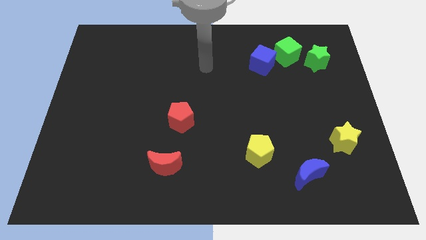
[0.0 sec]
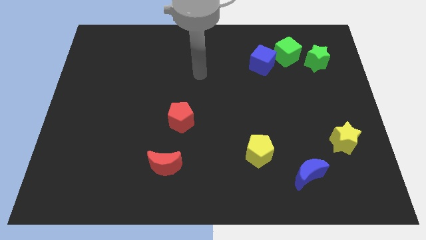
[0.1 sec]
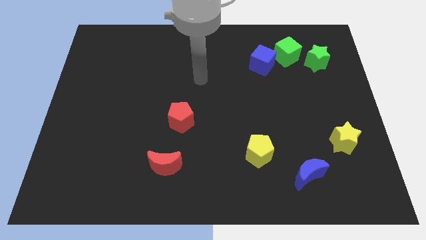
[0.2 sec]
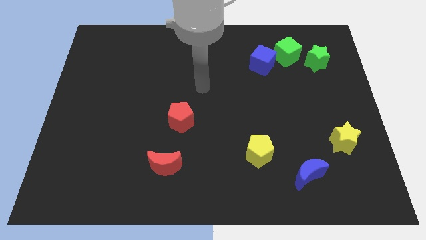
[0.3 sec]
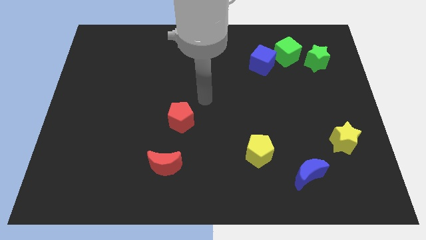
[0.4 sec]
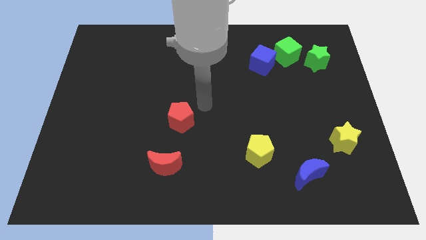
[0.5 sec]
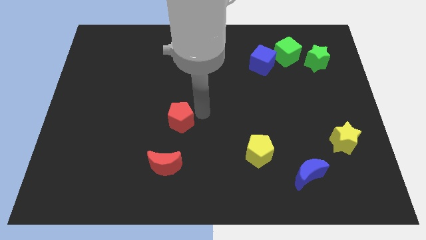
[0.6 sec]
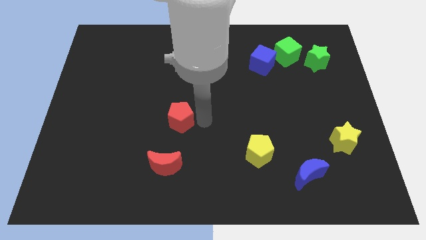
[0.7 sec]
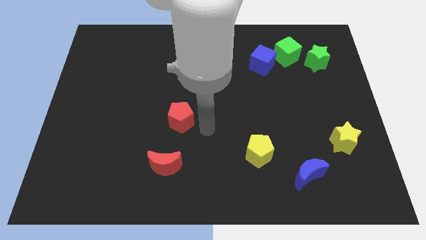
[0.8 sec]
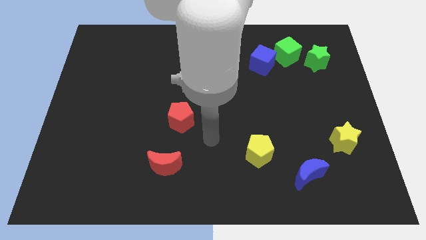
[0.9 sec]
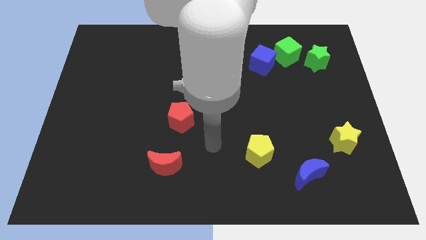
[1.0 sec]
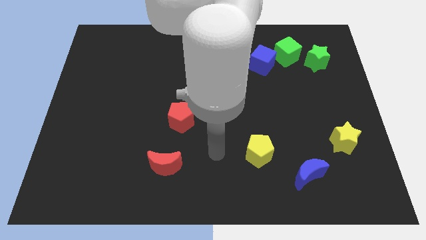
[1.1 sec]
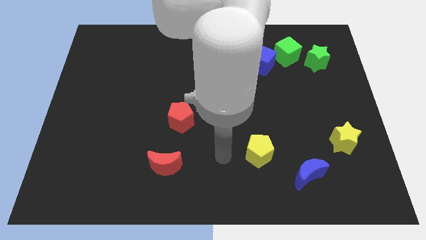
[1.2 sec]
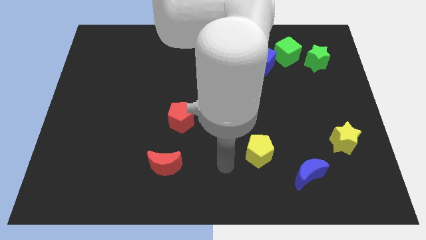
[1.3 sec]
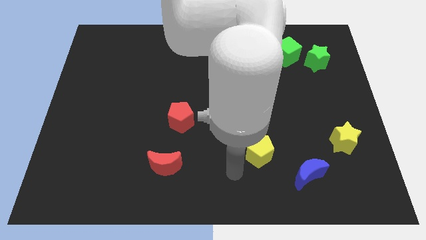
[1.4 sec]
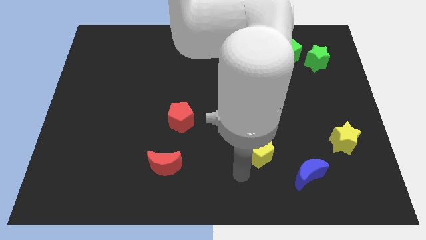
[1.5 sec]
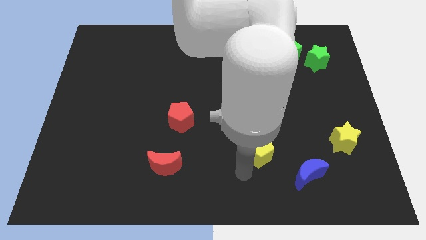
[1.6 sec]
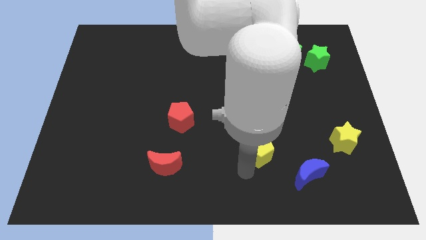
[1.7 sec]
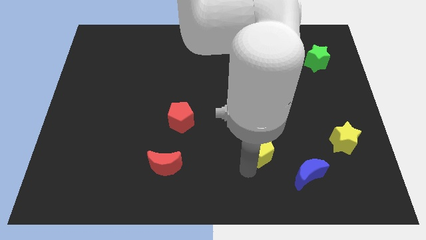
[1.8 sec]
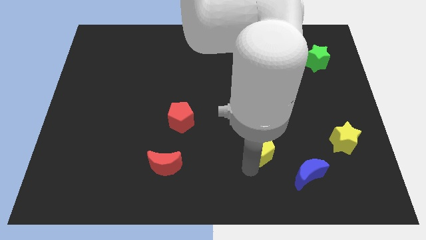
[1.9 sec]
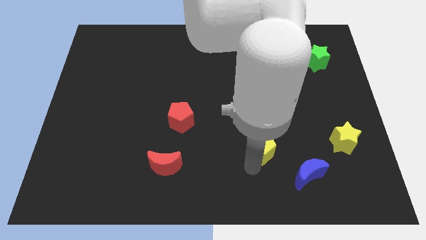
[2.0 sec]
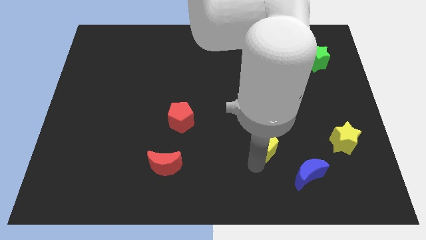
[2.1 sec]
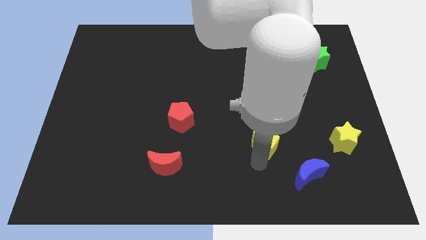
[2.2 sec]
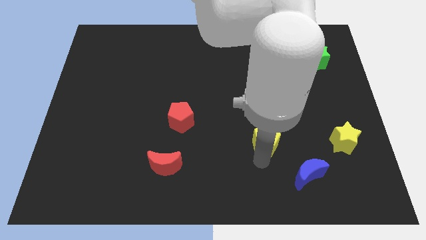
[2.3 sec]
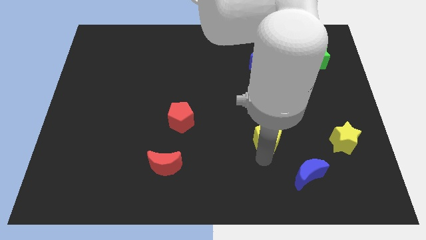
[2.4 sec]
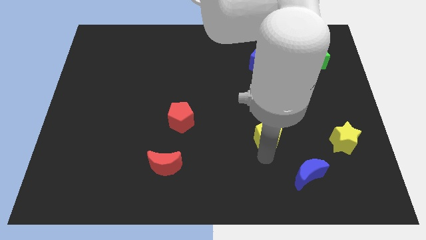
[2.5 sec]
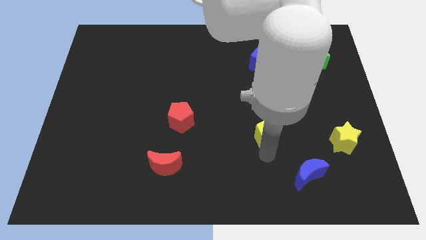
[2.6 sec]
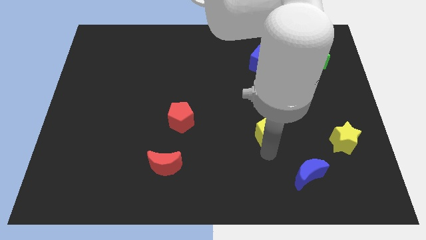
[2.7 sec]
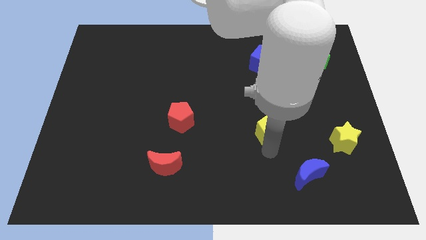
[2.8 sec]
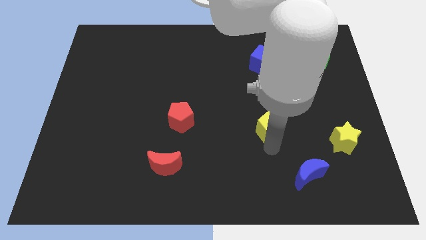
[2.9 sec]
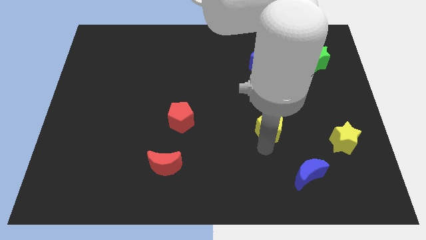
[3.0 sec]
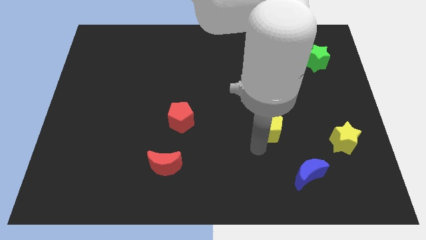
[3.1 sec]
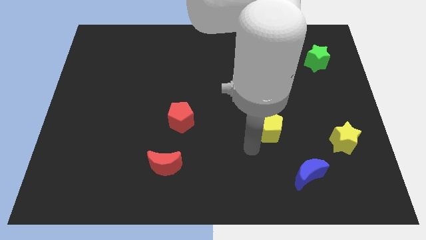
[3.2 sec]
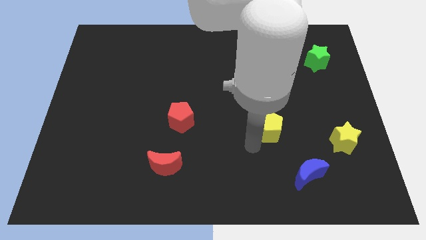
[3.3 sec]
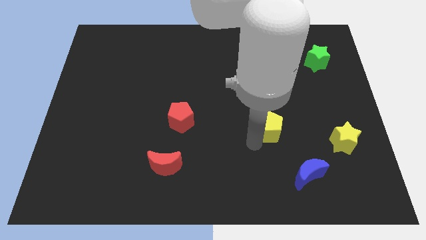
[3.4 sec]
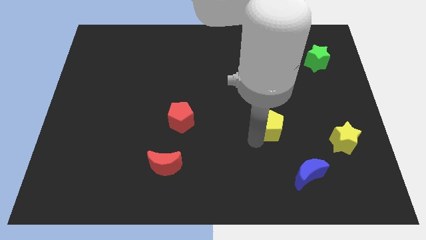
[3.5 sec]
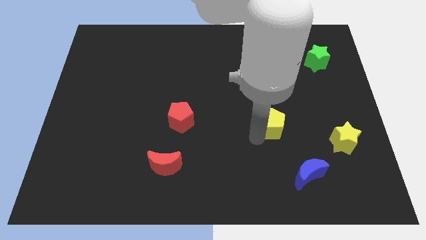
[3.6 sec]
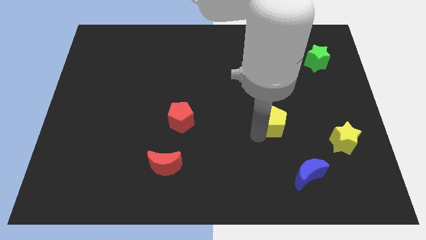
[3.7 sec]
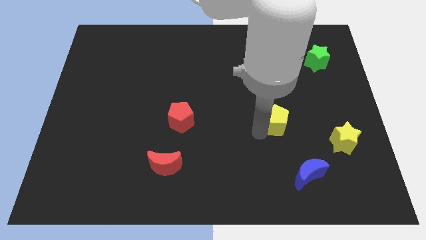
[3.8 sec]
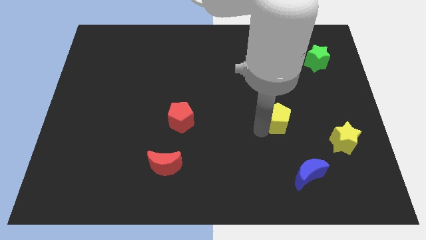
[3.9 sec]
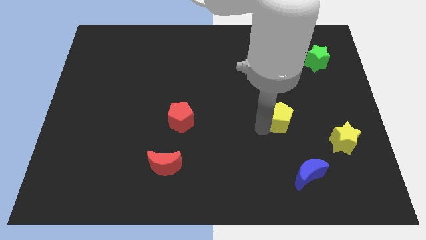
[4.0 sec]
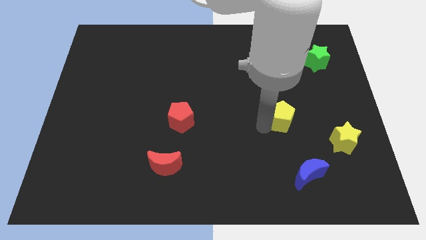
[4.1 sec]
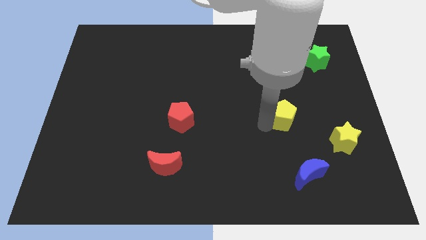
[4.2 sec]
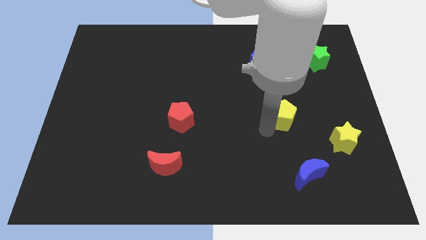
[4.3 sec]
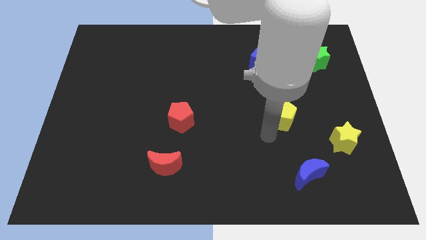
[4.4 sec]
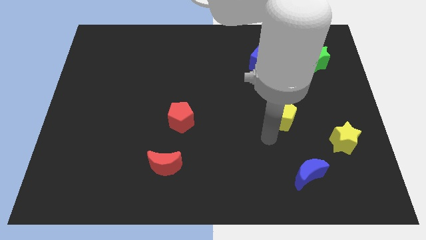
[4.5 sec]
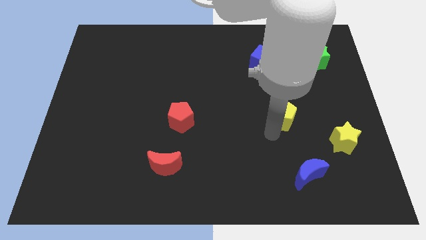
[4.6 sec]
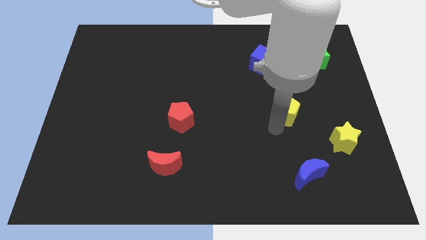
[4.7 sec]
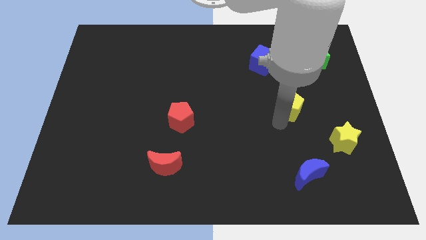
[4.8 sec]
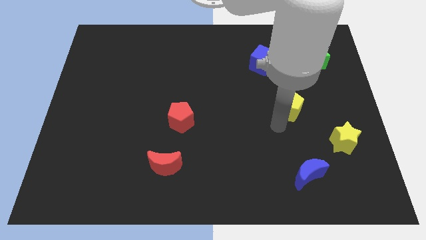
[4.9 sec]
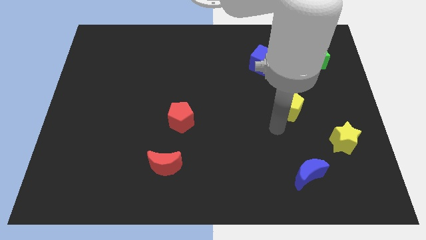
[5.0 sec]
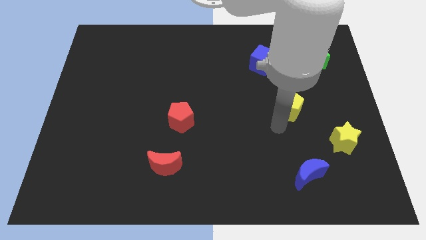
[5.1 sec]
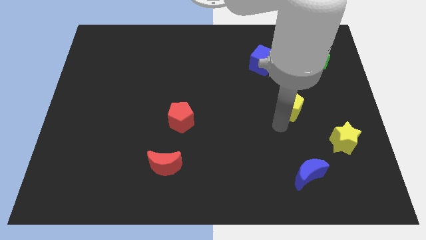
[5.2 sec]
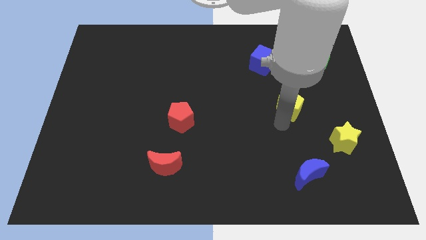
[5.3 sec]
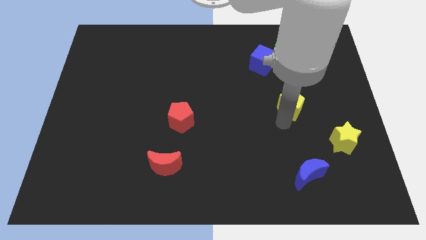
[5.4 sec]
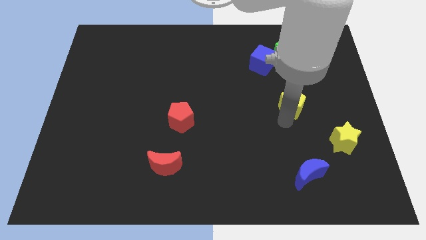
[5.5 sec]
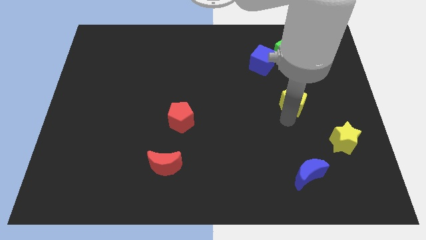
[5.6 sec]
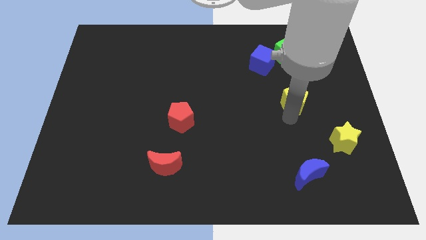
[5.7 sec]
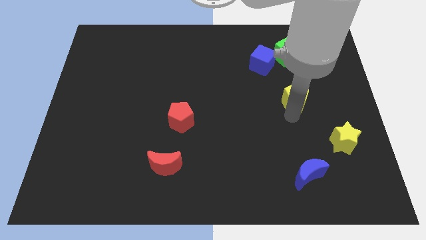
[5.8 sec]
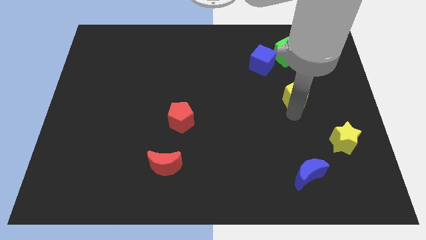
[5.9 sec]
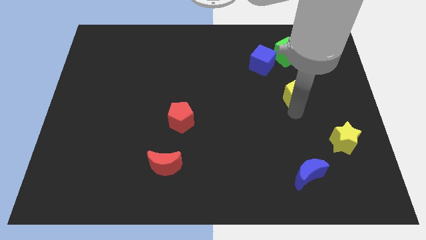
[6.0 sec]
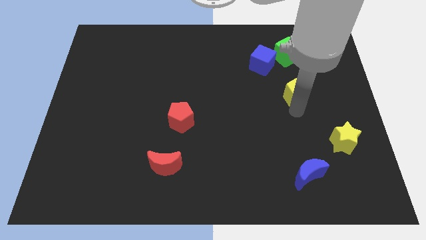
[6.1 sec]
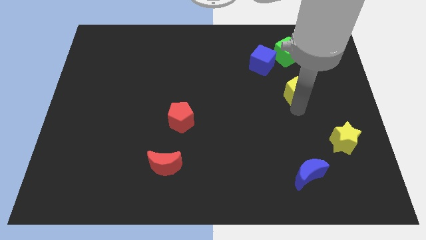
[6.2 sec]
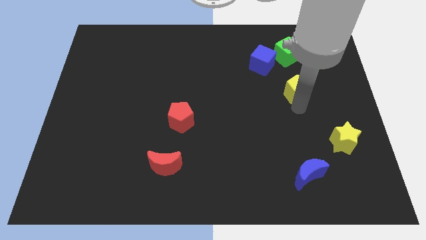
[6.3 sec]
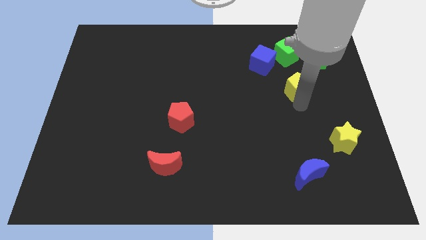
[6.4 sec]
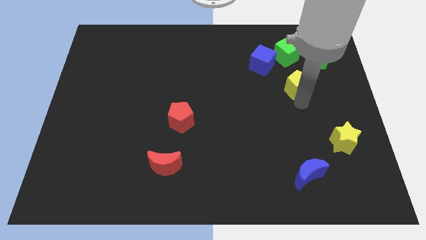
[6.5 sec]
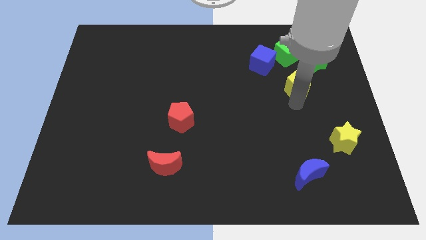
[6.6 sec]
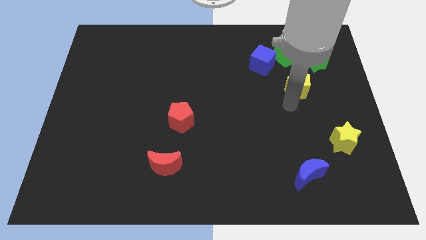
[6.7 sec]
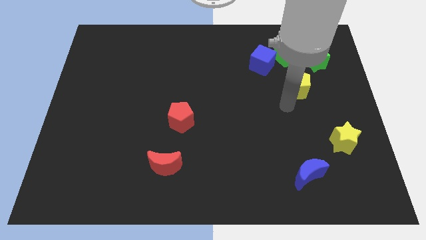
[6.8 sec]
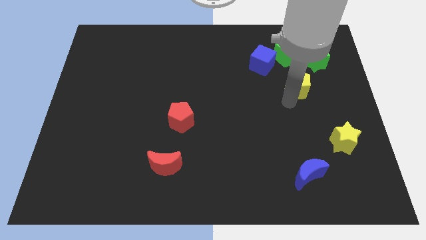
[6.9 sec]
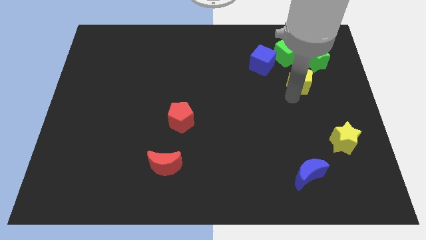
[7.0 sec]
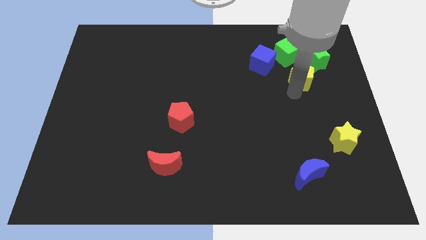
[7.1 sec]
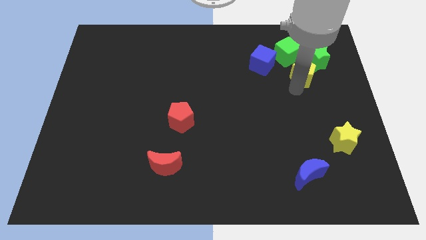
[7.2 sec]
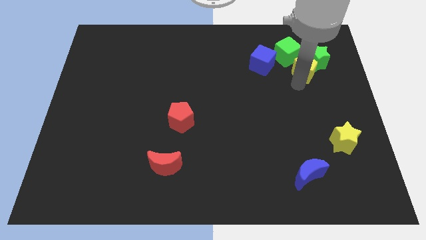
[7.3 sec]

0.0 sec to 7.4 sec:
push the yellow pentagon to the green star
